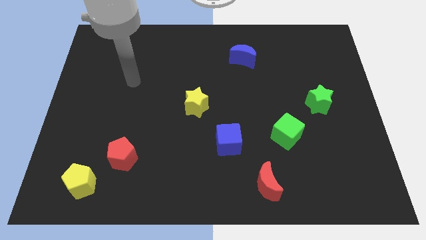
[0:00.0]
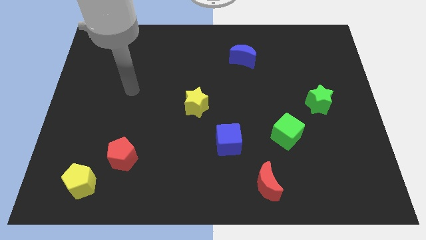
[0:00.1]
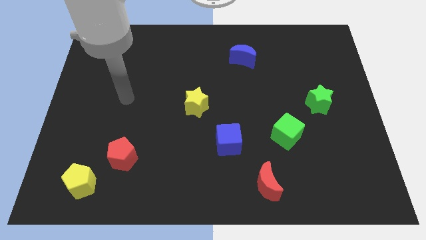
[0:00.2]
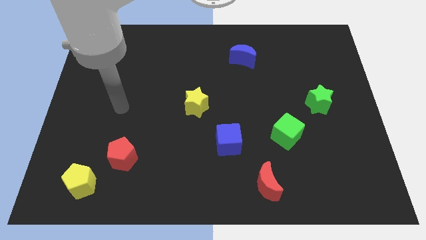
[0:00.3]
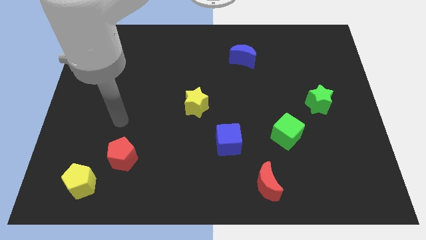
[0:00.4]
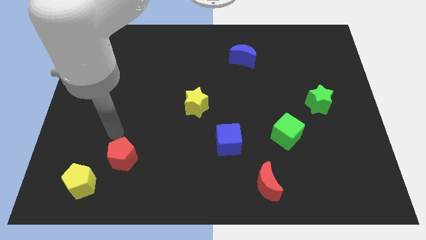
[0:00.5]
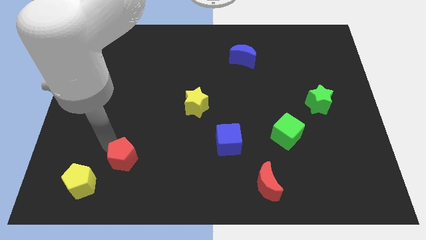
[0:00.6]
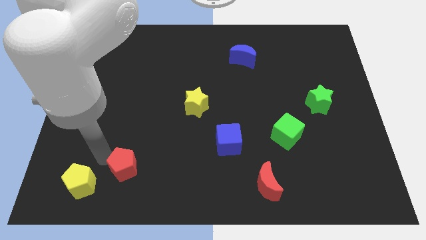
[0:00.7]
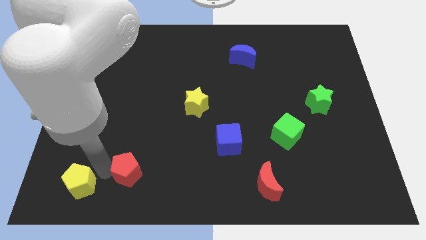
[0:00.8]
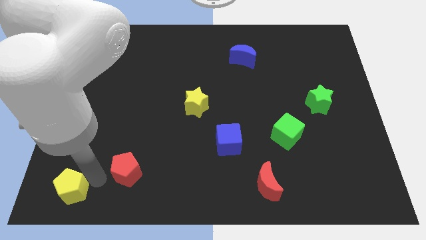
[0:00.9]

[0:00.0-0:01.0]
pull the red pentagon apart from the yellow pentagon

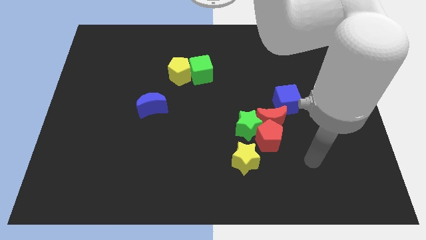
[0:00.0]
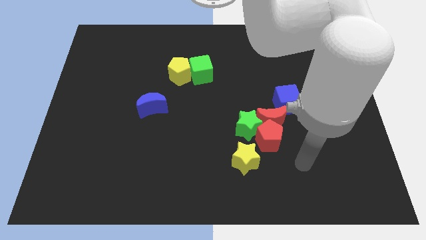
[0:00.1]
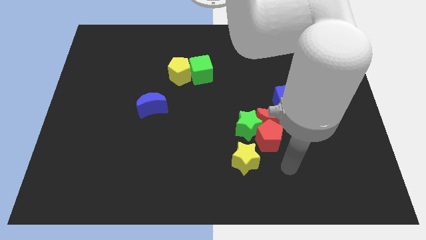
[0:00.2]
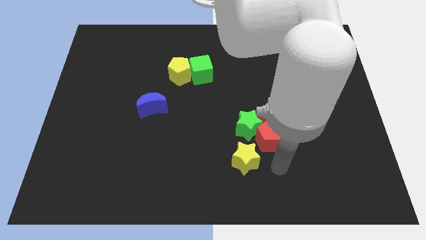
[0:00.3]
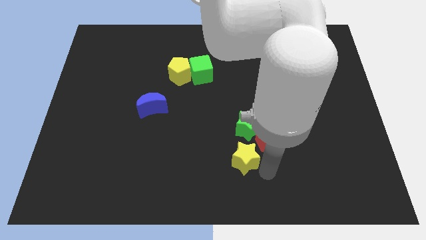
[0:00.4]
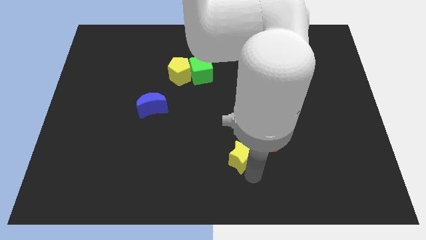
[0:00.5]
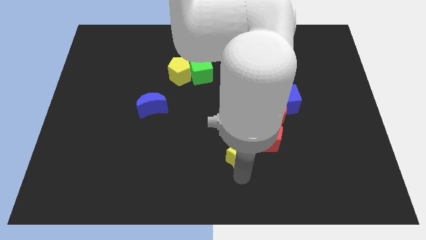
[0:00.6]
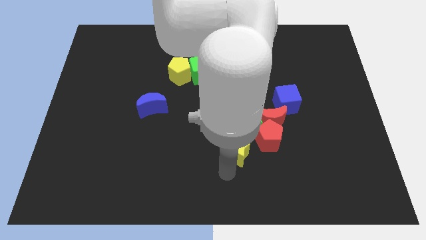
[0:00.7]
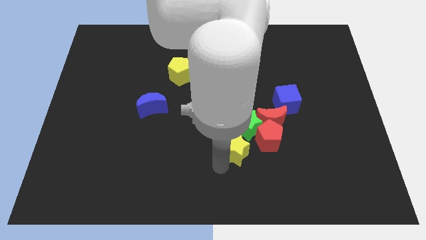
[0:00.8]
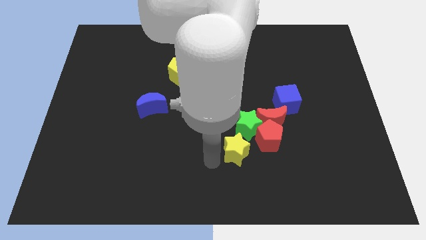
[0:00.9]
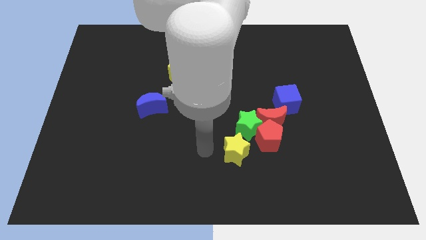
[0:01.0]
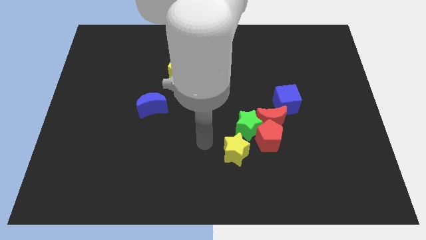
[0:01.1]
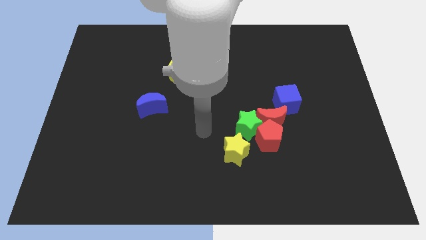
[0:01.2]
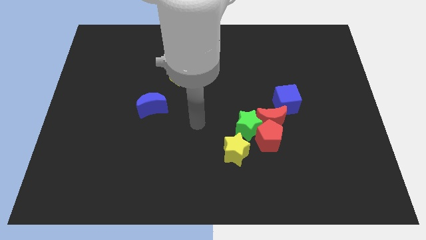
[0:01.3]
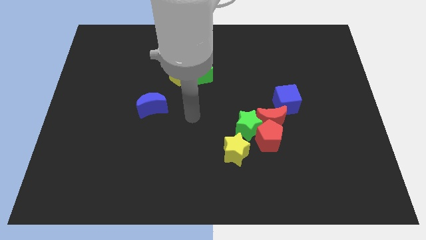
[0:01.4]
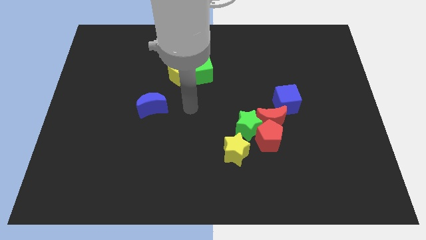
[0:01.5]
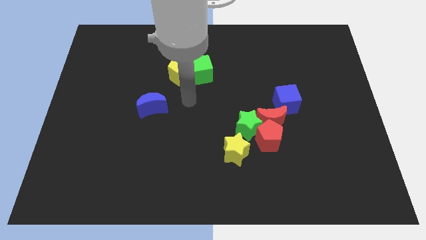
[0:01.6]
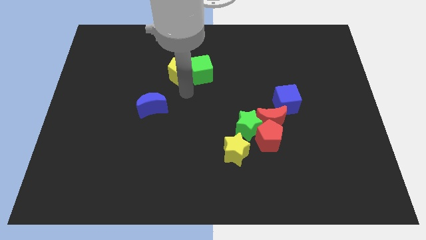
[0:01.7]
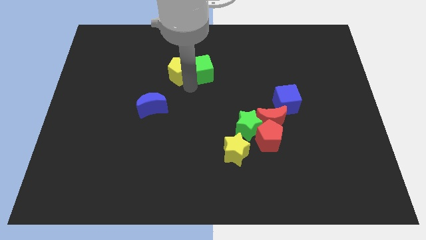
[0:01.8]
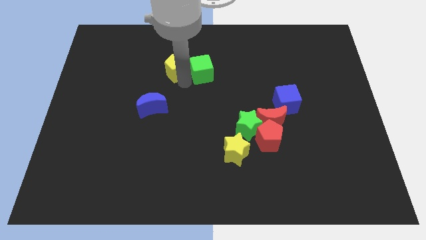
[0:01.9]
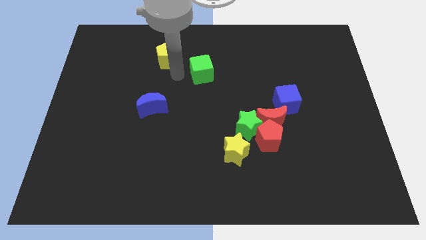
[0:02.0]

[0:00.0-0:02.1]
move the green cube away from the yellow pentagon

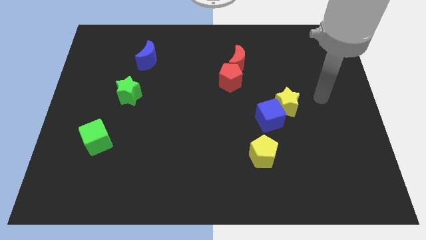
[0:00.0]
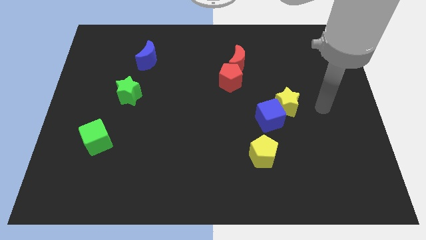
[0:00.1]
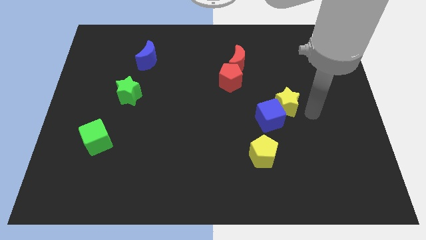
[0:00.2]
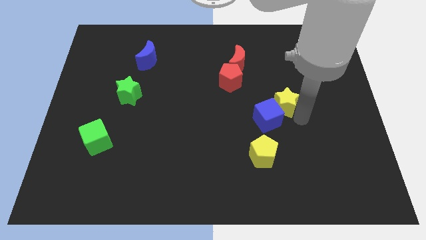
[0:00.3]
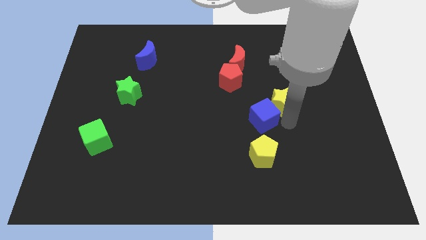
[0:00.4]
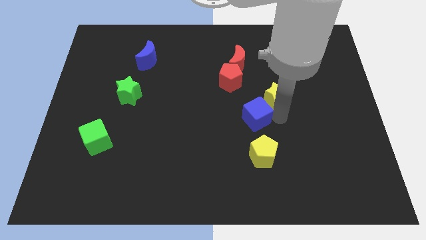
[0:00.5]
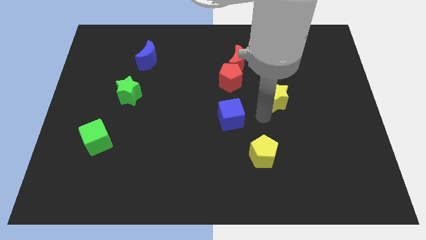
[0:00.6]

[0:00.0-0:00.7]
separate the yellow star from the blue cube

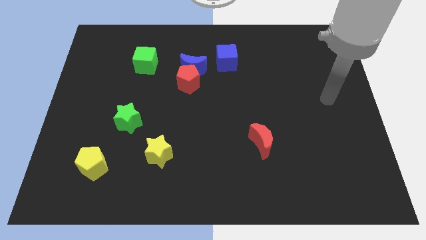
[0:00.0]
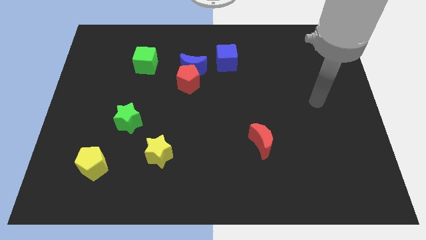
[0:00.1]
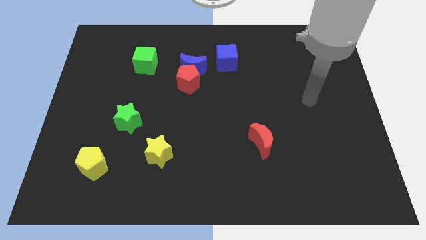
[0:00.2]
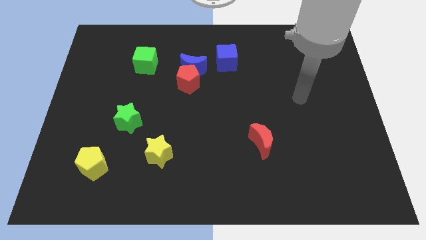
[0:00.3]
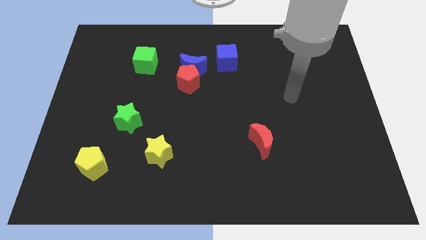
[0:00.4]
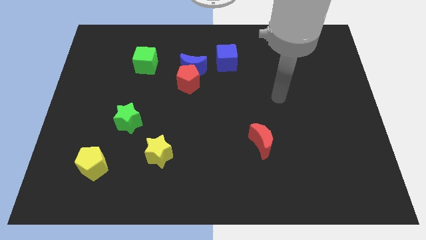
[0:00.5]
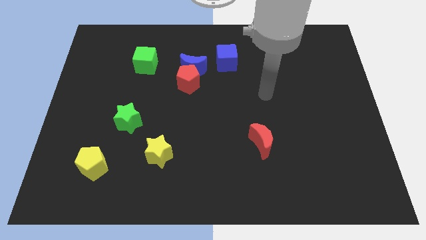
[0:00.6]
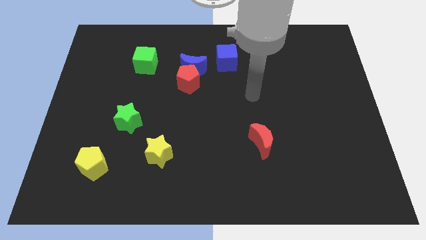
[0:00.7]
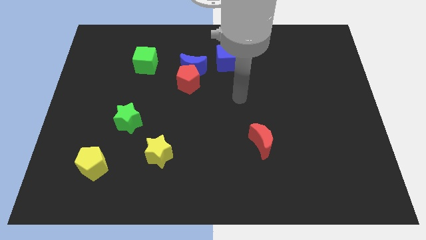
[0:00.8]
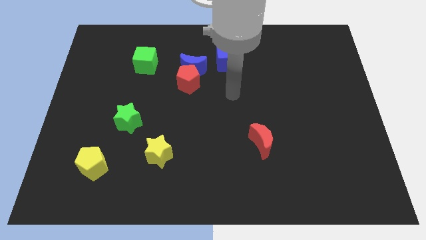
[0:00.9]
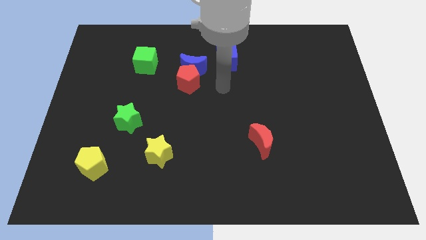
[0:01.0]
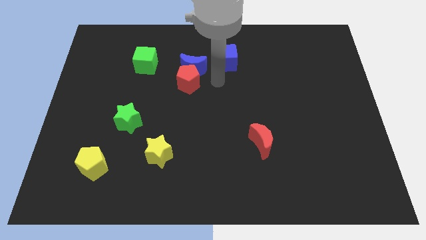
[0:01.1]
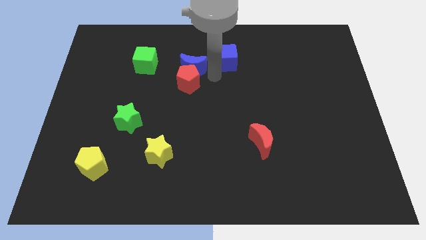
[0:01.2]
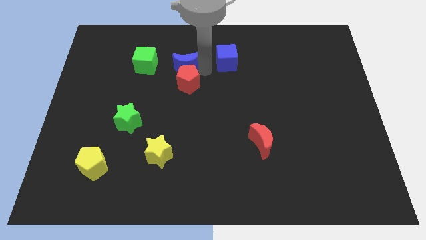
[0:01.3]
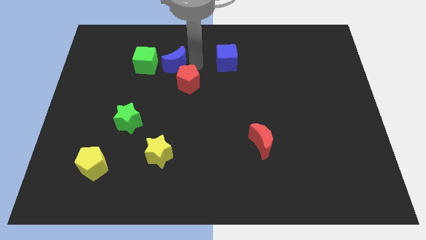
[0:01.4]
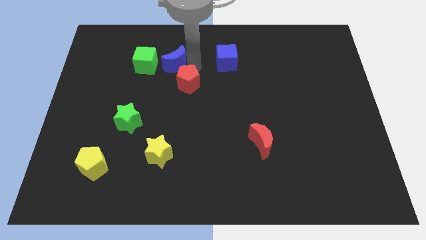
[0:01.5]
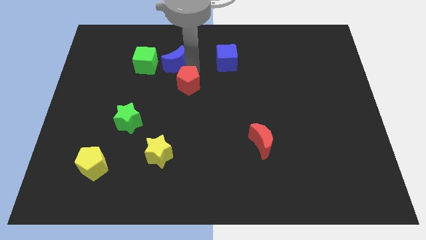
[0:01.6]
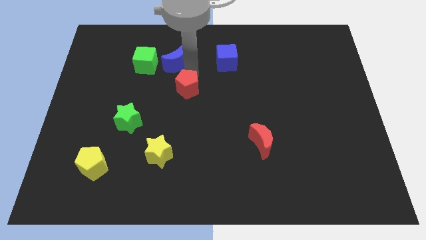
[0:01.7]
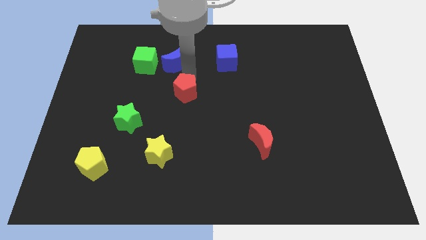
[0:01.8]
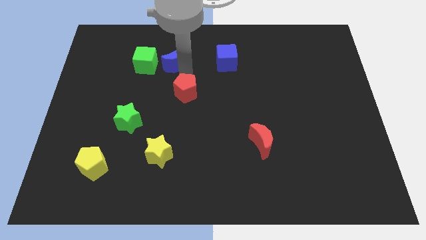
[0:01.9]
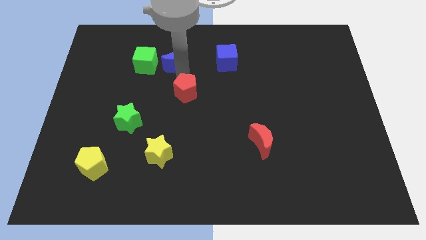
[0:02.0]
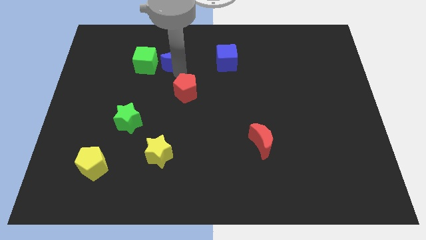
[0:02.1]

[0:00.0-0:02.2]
pull the red pentagon apart from the blue moon

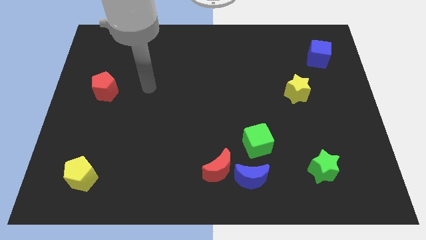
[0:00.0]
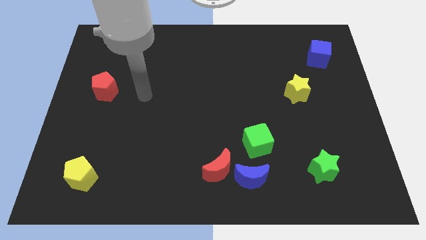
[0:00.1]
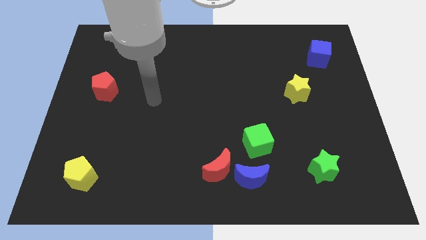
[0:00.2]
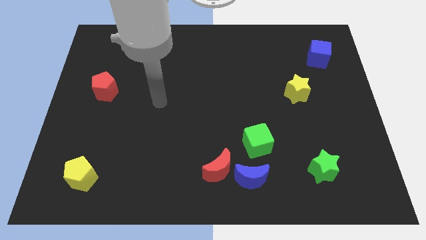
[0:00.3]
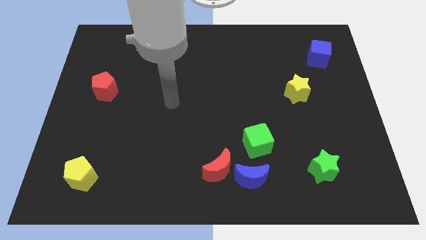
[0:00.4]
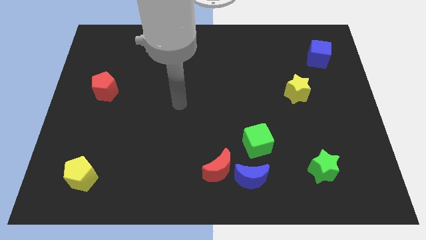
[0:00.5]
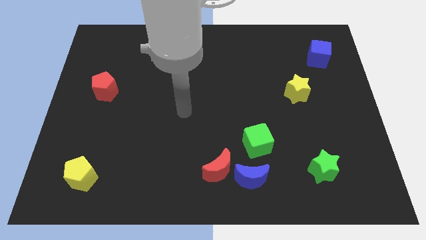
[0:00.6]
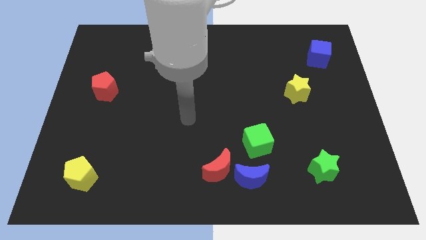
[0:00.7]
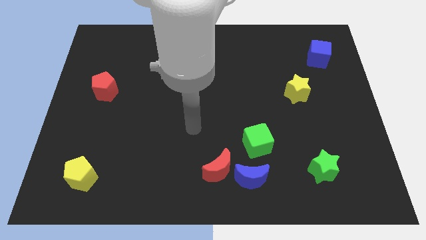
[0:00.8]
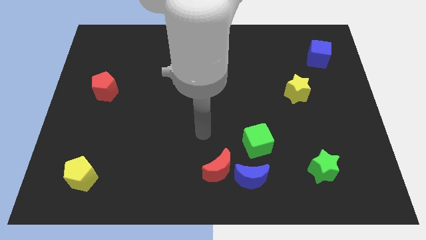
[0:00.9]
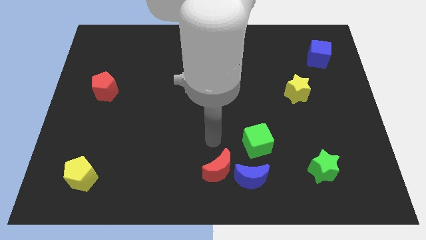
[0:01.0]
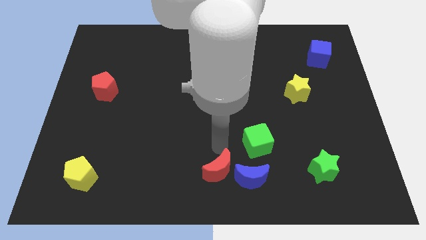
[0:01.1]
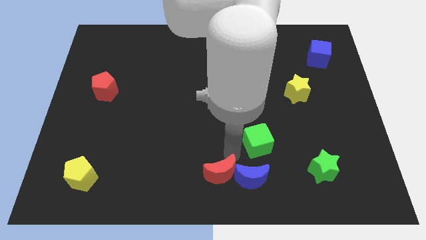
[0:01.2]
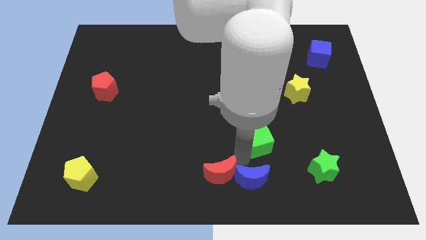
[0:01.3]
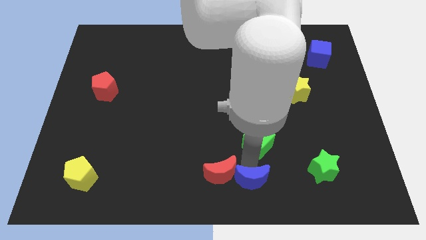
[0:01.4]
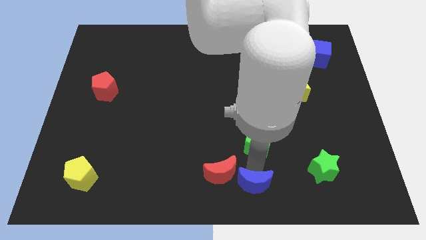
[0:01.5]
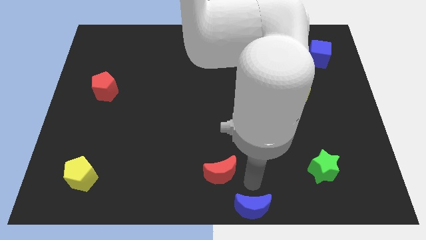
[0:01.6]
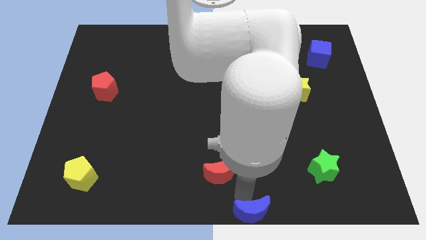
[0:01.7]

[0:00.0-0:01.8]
pull the red moon apart from the blue moon

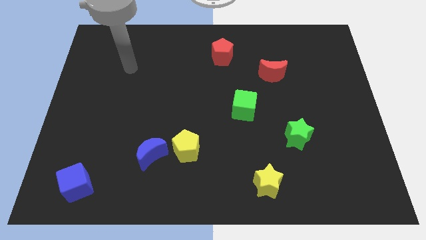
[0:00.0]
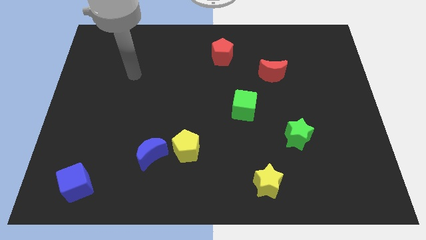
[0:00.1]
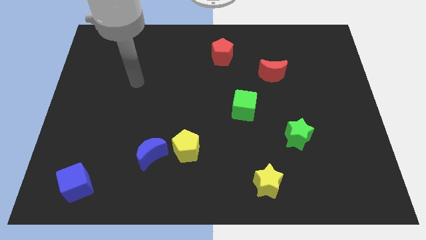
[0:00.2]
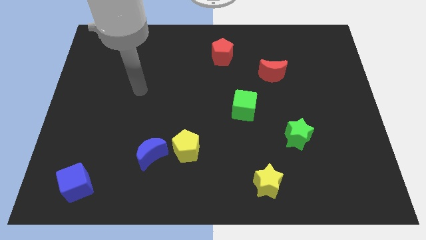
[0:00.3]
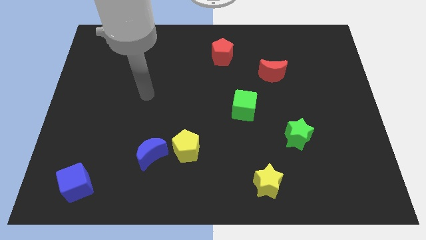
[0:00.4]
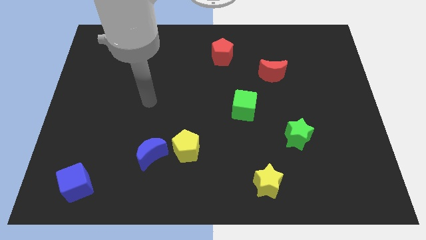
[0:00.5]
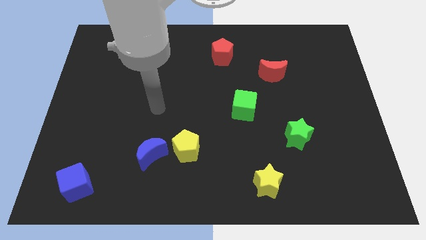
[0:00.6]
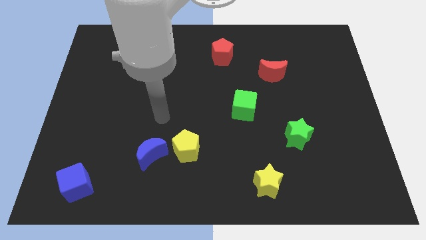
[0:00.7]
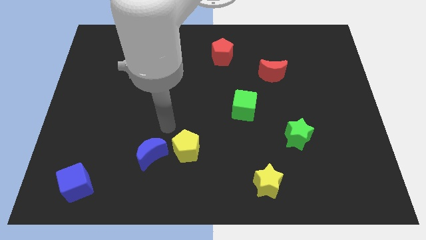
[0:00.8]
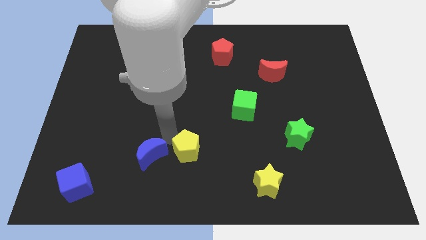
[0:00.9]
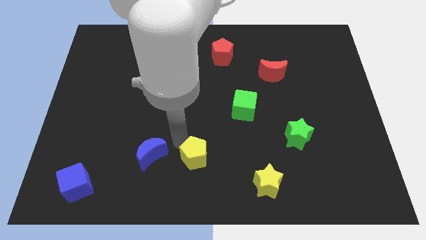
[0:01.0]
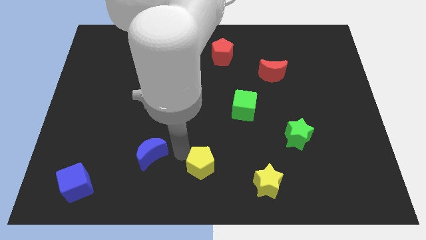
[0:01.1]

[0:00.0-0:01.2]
move the blue moon away from the yellow pentagon

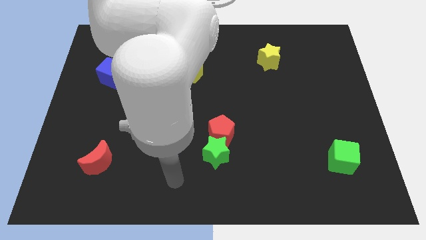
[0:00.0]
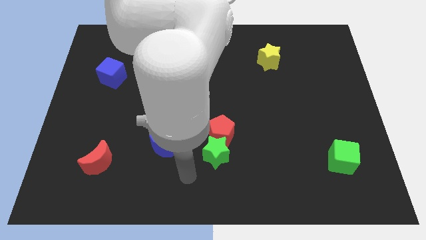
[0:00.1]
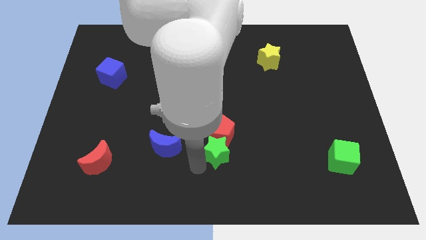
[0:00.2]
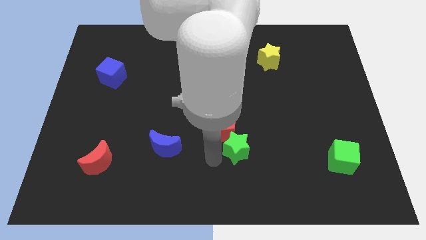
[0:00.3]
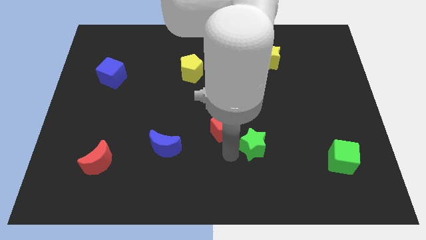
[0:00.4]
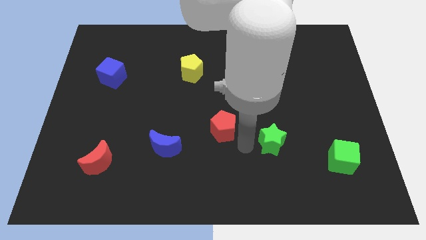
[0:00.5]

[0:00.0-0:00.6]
move the red pentagon away from the green star
